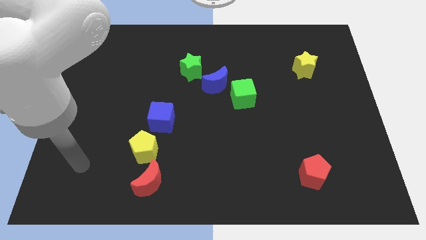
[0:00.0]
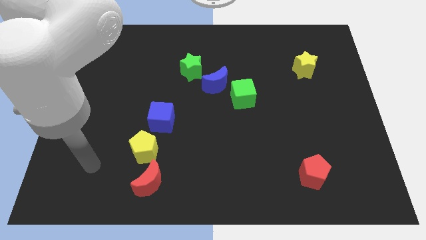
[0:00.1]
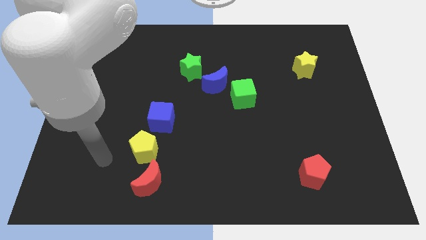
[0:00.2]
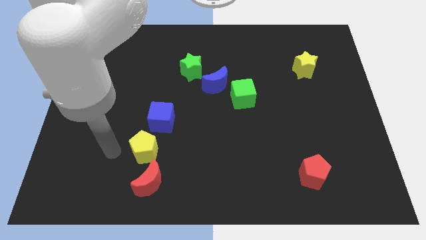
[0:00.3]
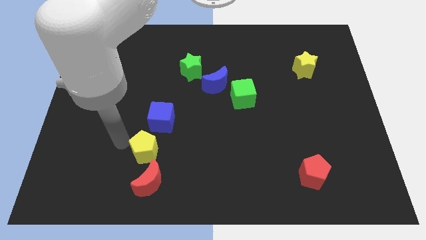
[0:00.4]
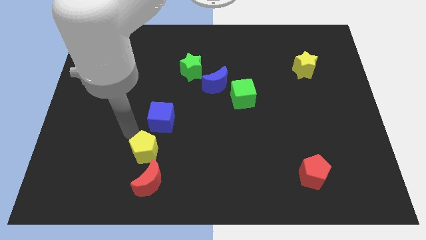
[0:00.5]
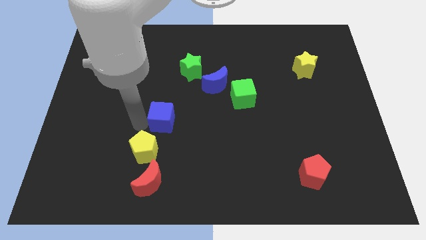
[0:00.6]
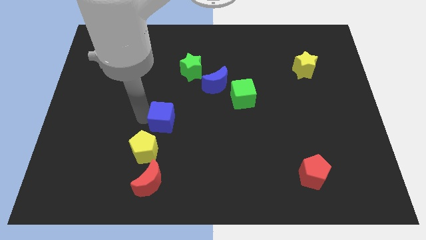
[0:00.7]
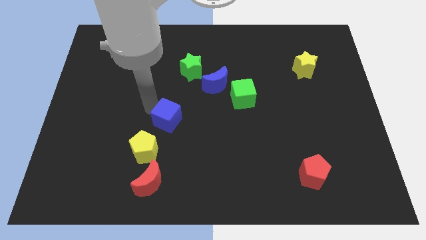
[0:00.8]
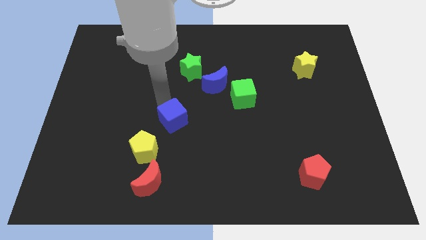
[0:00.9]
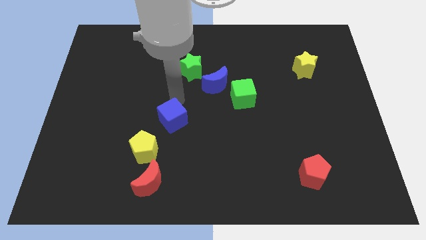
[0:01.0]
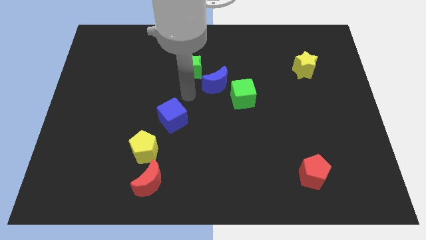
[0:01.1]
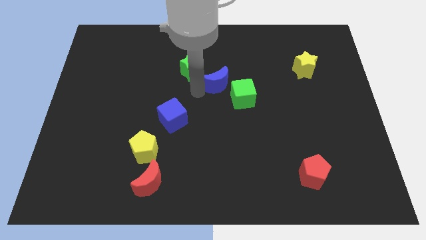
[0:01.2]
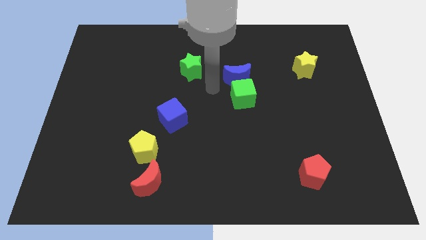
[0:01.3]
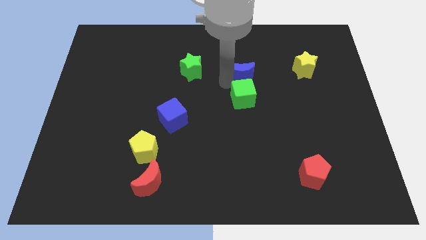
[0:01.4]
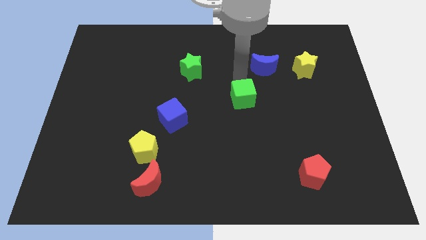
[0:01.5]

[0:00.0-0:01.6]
pull the green cube apart from the blue moon

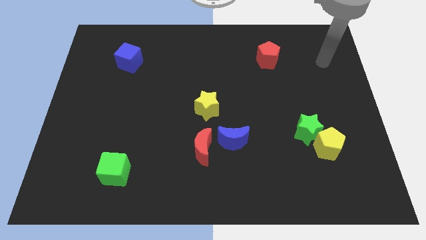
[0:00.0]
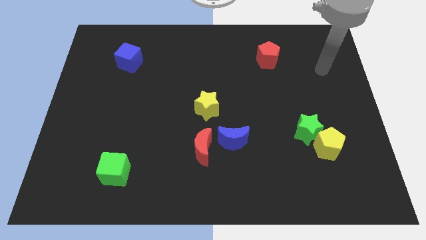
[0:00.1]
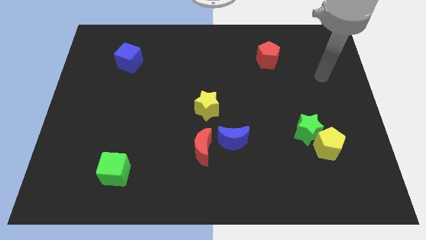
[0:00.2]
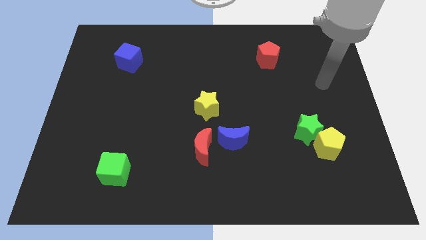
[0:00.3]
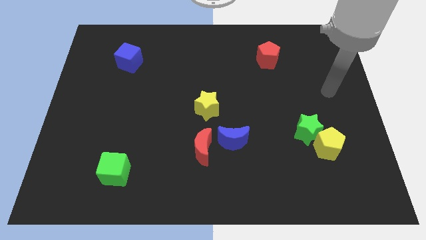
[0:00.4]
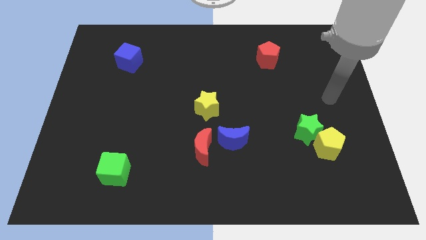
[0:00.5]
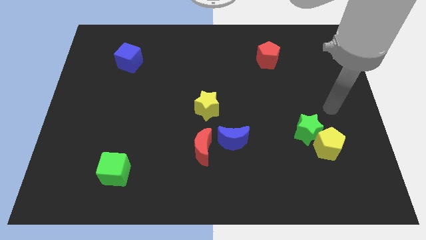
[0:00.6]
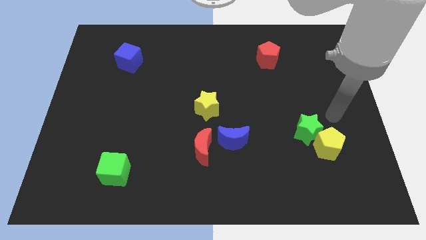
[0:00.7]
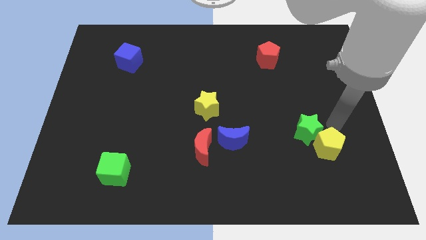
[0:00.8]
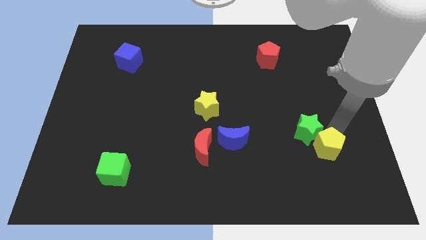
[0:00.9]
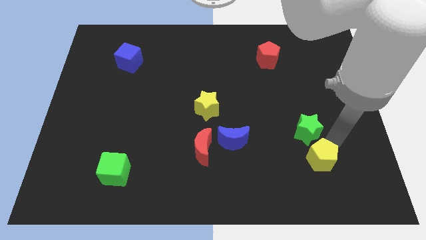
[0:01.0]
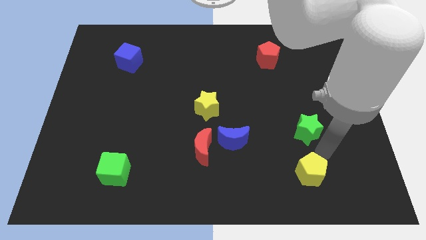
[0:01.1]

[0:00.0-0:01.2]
separate the green star from the yellow pentagon

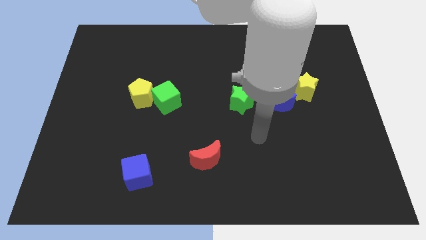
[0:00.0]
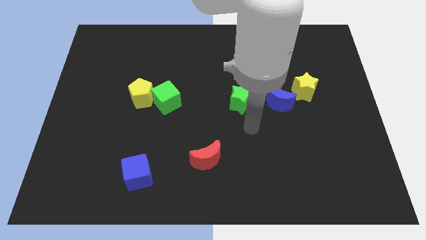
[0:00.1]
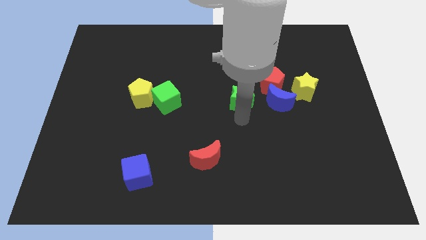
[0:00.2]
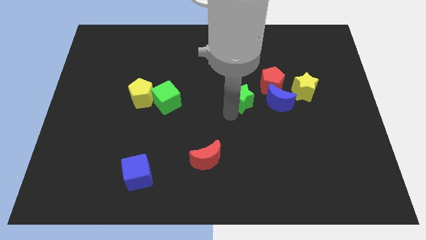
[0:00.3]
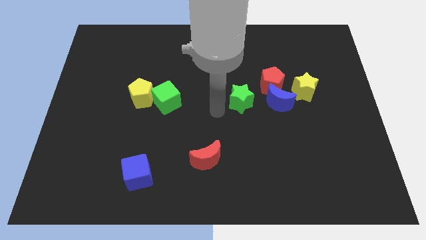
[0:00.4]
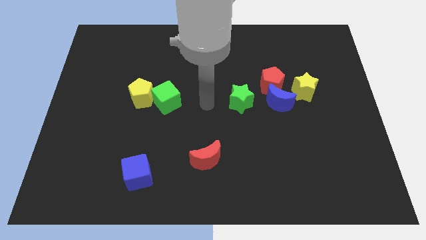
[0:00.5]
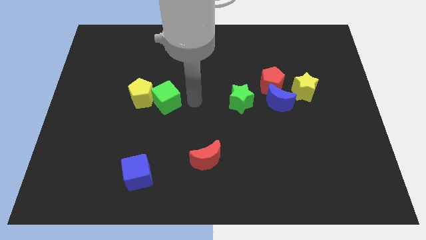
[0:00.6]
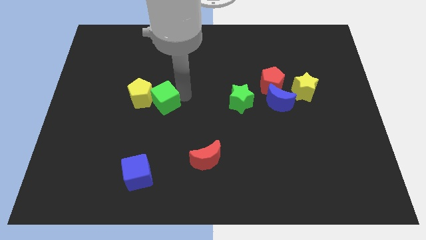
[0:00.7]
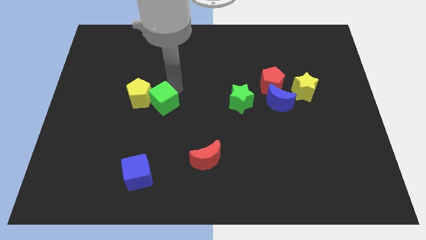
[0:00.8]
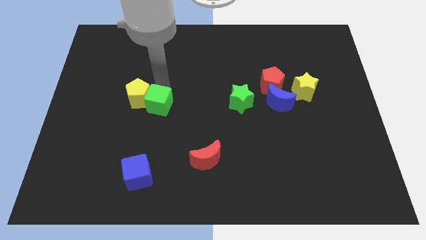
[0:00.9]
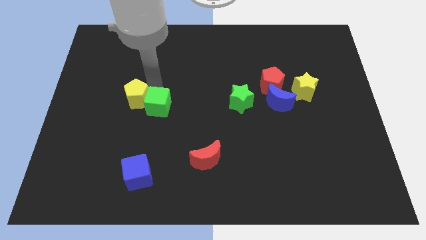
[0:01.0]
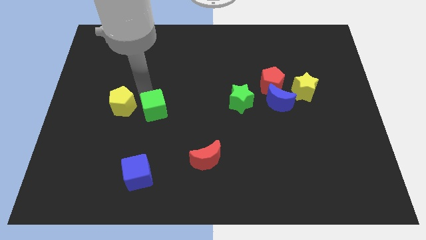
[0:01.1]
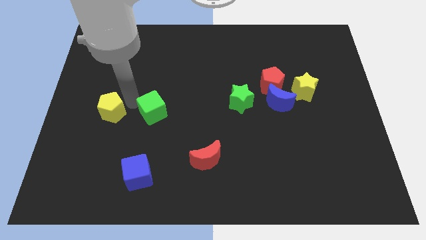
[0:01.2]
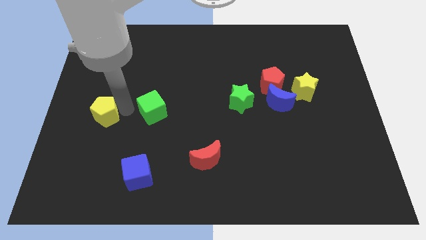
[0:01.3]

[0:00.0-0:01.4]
pull the green cube apart from the yellow pentagon

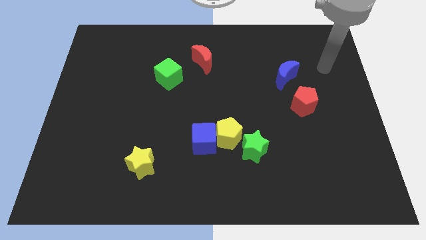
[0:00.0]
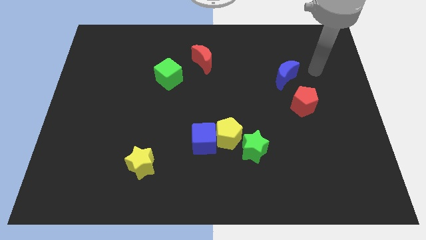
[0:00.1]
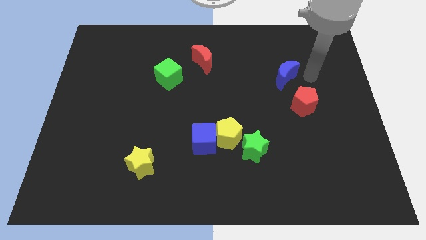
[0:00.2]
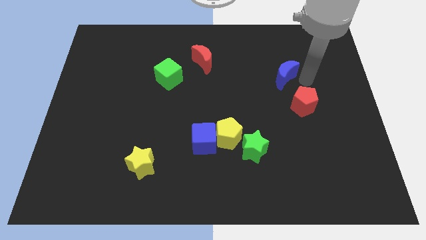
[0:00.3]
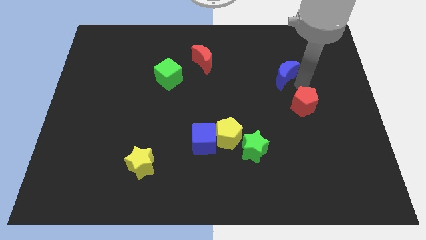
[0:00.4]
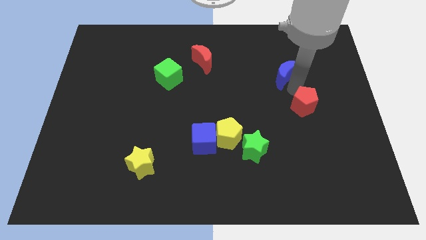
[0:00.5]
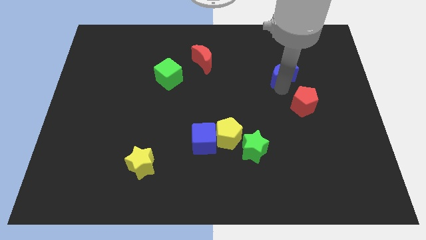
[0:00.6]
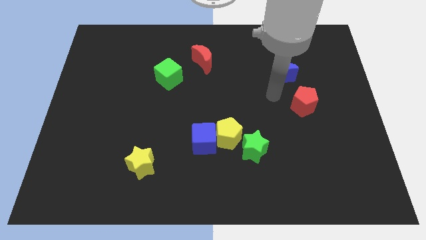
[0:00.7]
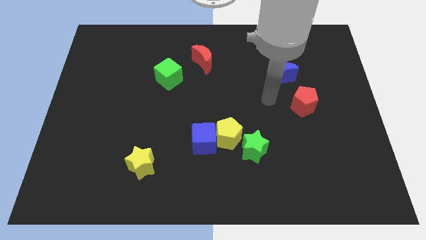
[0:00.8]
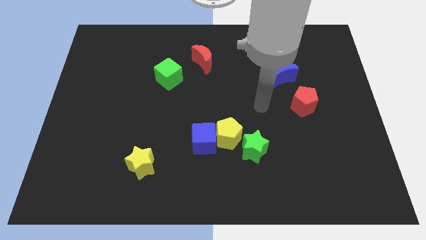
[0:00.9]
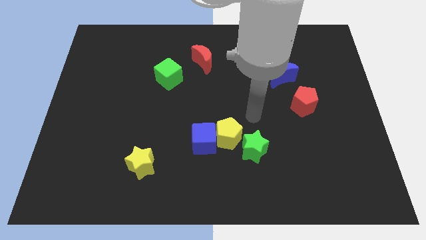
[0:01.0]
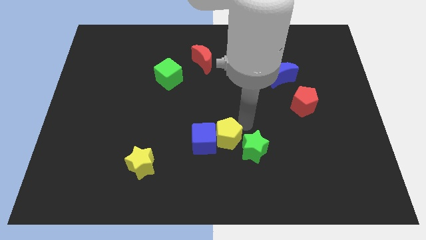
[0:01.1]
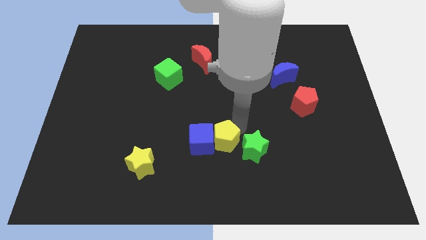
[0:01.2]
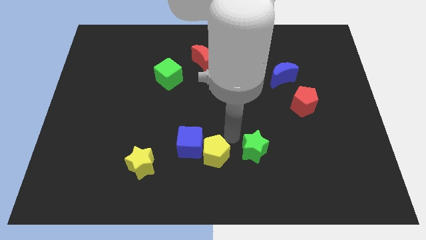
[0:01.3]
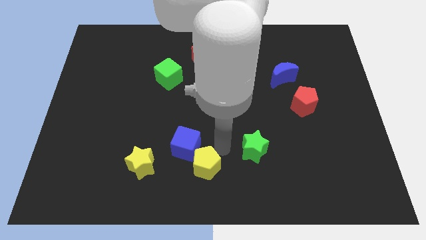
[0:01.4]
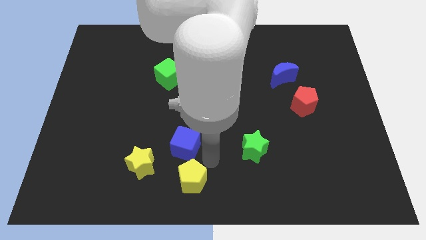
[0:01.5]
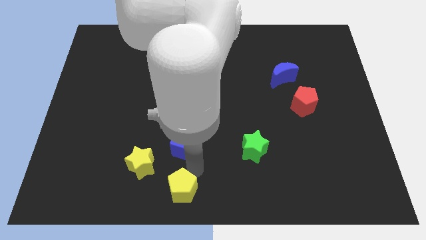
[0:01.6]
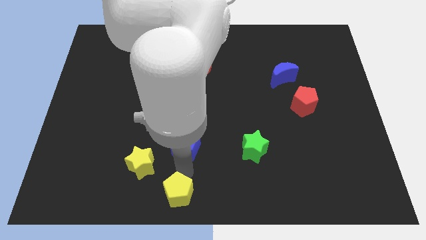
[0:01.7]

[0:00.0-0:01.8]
move the blue cube away from the yellow pentagon

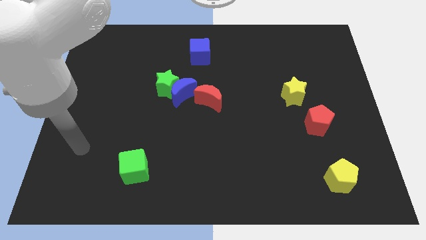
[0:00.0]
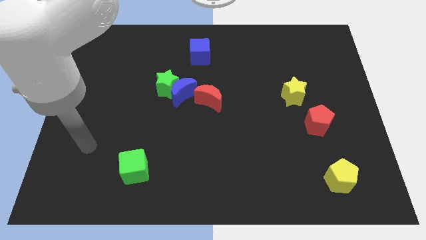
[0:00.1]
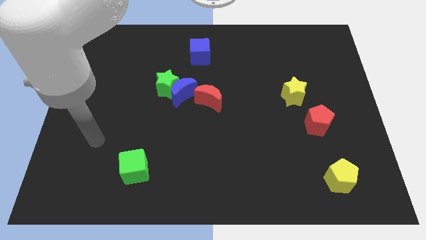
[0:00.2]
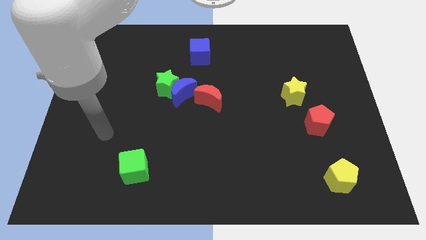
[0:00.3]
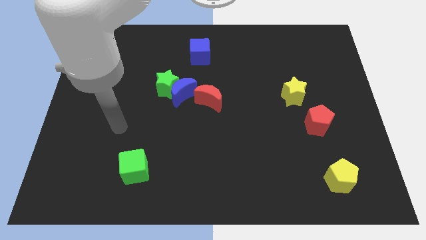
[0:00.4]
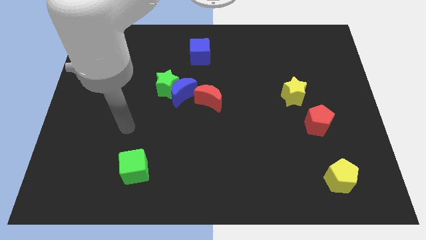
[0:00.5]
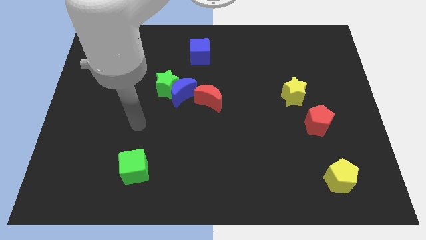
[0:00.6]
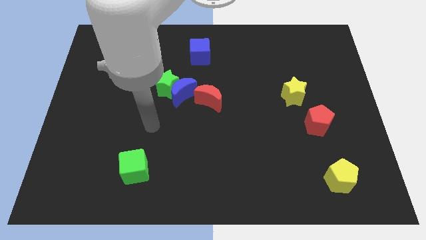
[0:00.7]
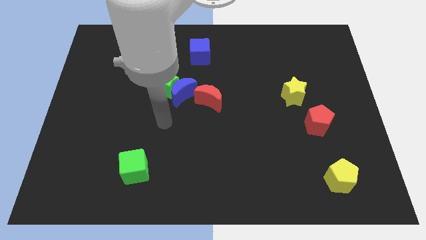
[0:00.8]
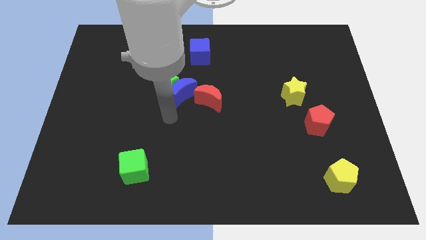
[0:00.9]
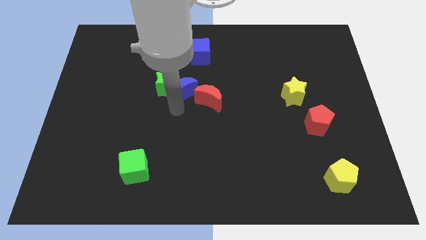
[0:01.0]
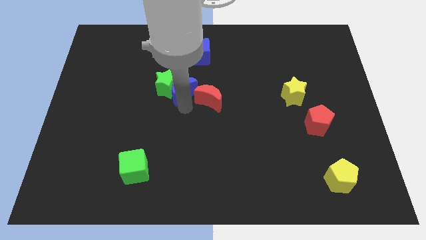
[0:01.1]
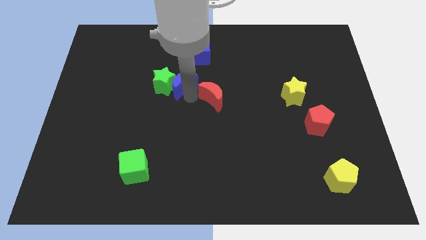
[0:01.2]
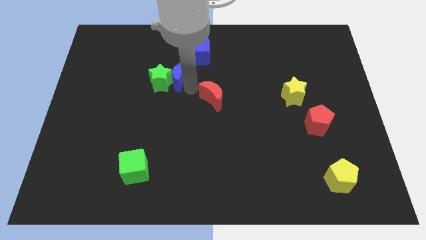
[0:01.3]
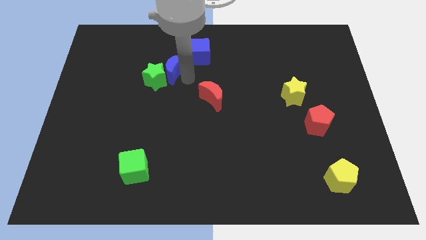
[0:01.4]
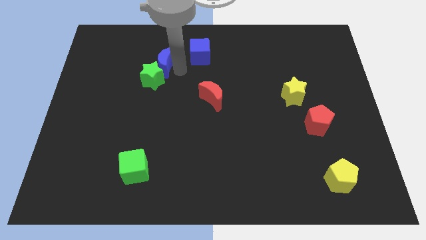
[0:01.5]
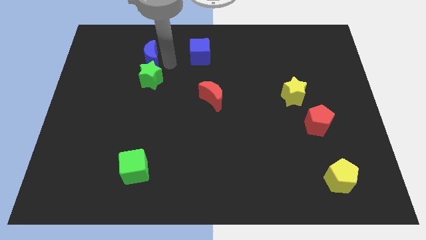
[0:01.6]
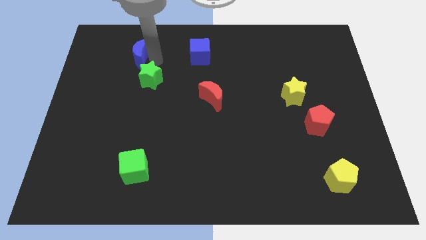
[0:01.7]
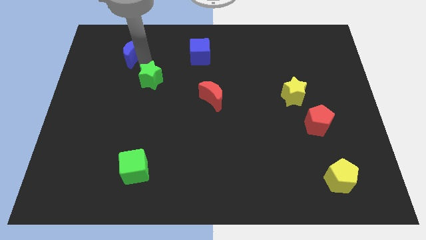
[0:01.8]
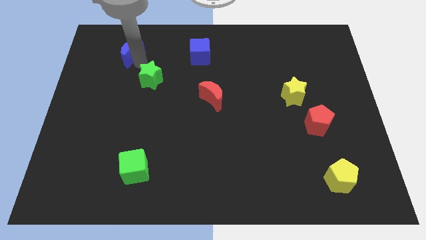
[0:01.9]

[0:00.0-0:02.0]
separate the green star from the blue moon

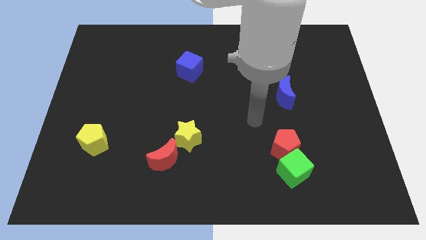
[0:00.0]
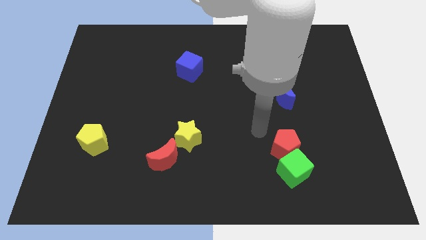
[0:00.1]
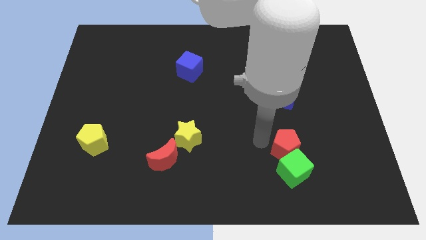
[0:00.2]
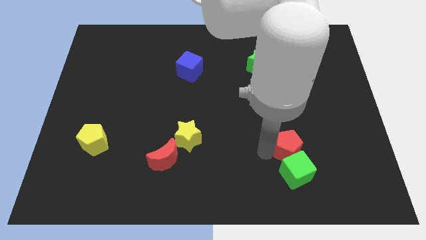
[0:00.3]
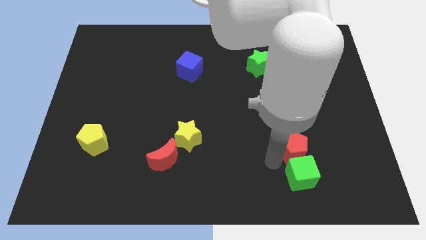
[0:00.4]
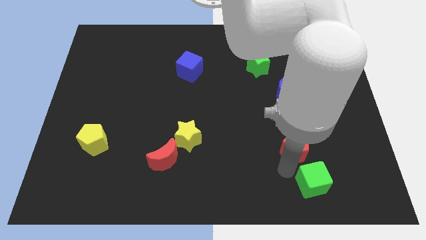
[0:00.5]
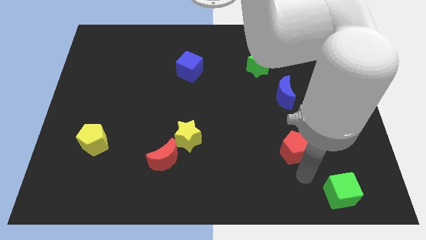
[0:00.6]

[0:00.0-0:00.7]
separate the red pentagon from the green cube

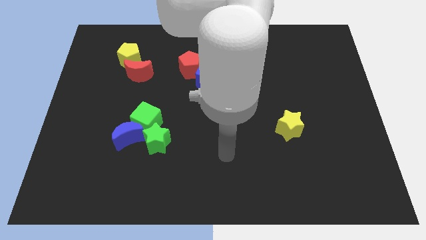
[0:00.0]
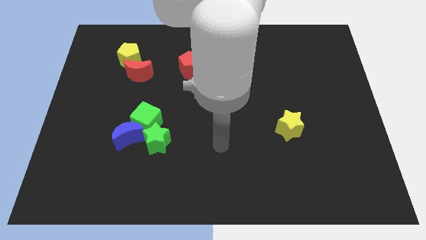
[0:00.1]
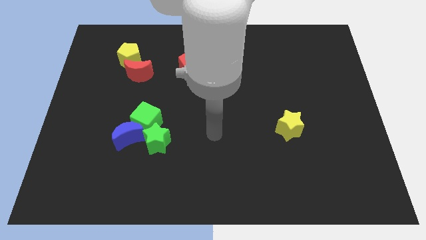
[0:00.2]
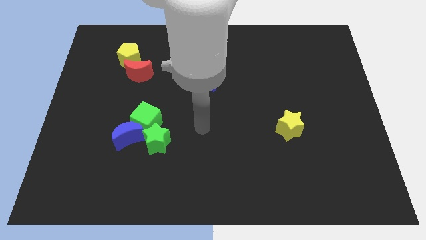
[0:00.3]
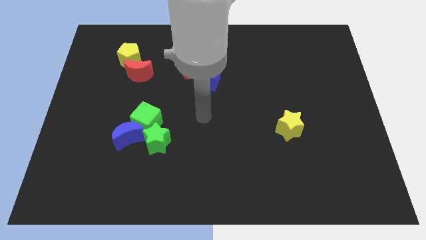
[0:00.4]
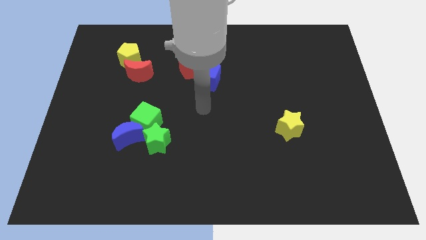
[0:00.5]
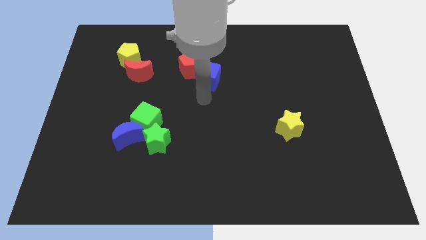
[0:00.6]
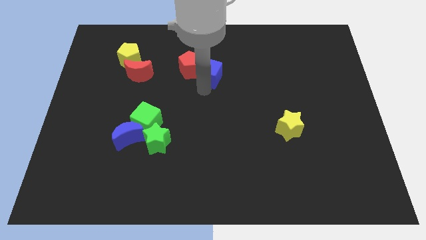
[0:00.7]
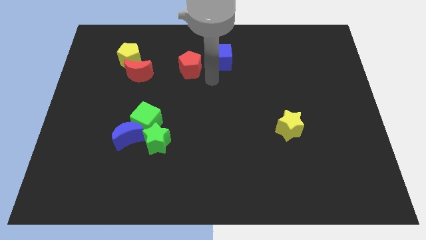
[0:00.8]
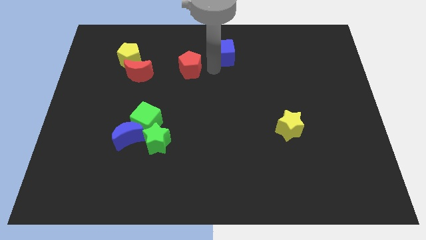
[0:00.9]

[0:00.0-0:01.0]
move the red pentagon away from the blue cube
